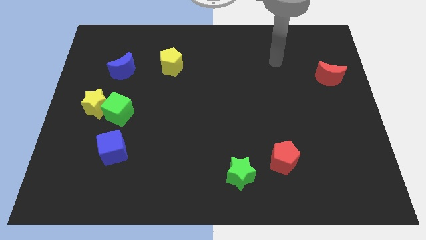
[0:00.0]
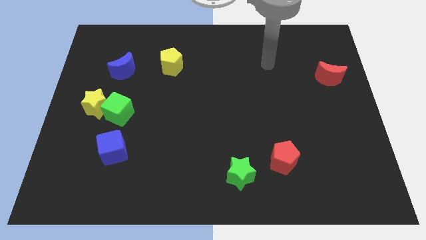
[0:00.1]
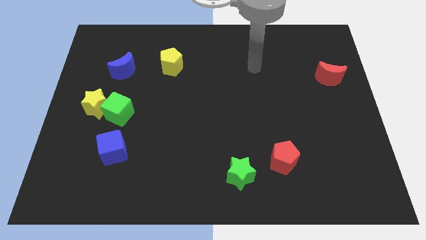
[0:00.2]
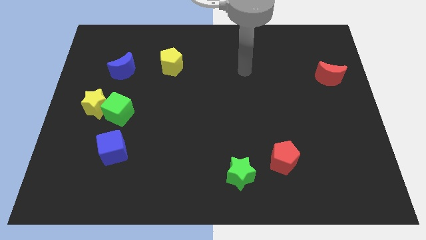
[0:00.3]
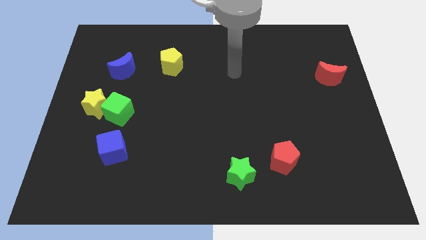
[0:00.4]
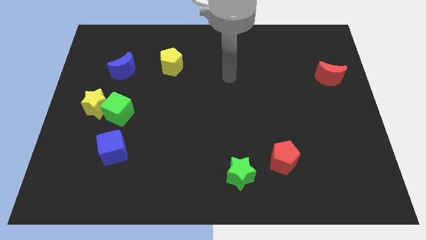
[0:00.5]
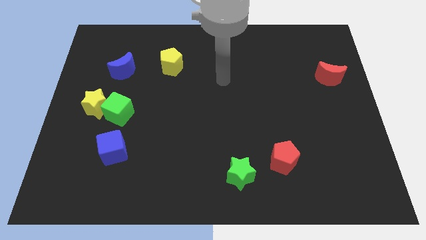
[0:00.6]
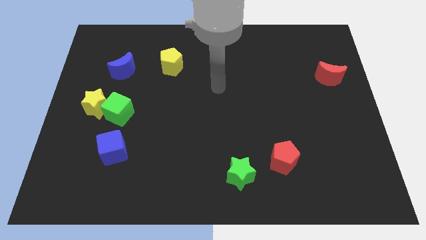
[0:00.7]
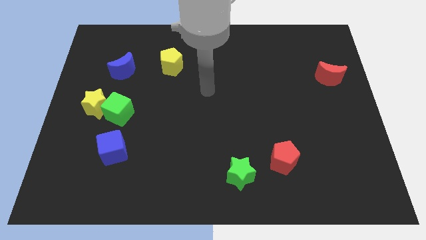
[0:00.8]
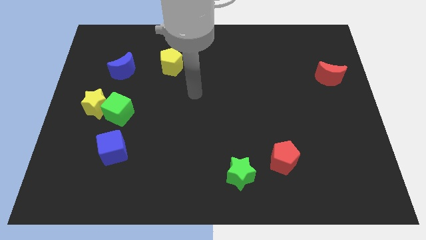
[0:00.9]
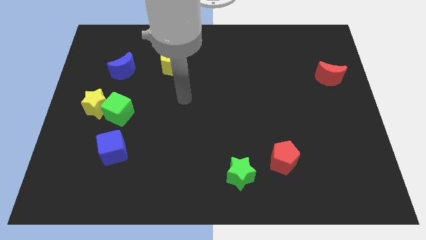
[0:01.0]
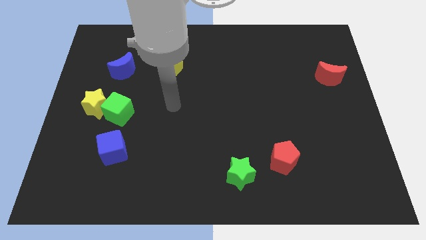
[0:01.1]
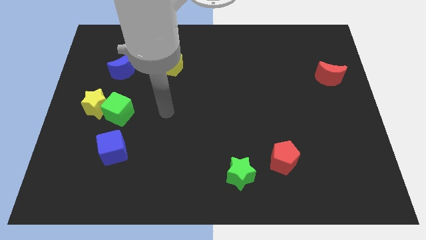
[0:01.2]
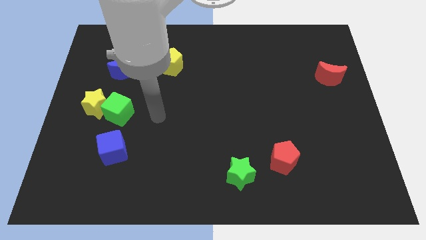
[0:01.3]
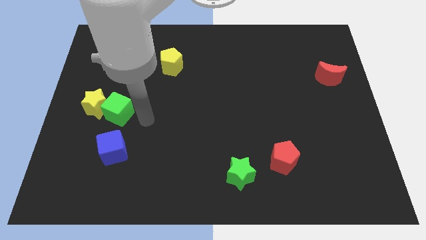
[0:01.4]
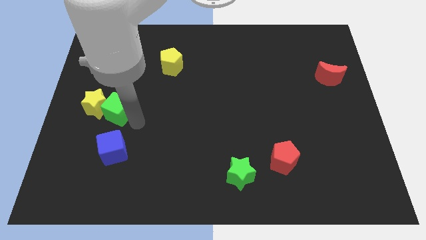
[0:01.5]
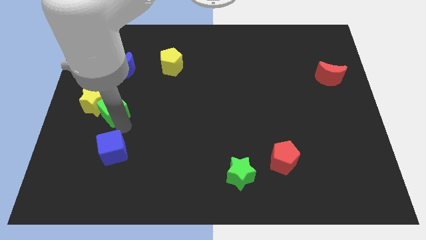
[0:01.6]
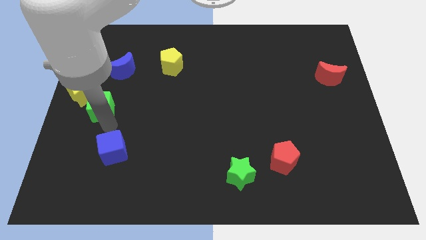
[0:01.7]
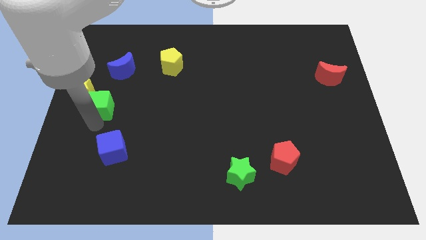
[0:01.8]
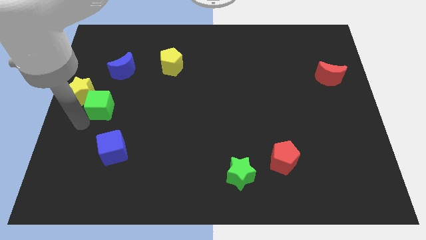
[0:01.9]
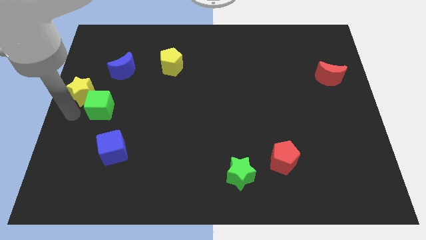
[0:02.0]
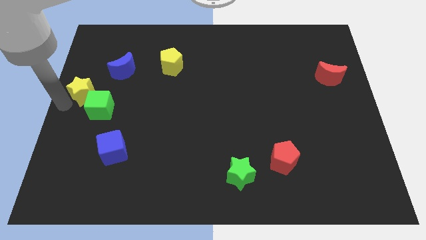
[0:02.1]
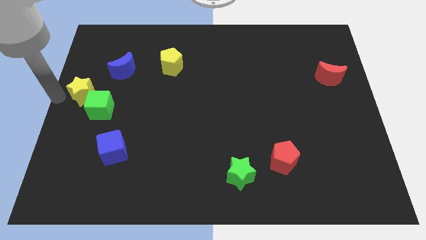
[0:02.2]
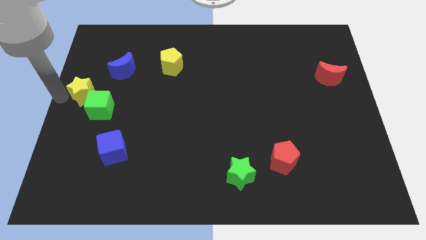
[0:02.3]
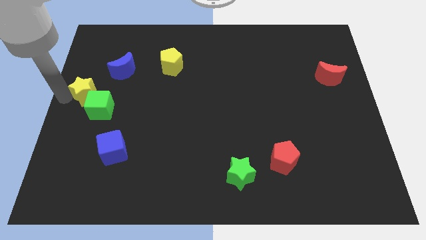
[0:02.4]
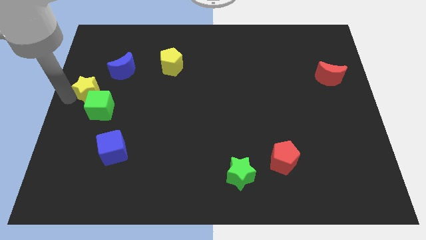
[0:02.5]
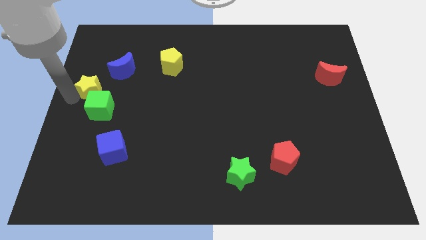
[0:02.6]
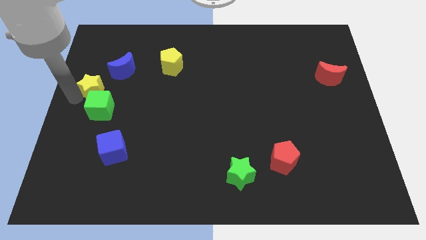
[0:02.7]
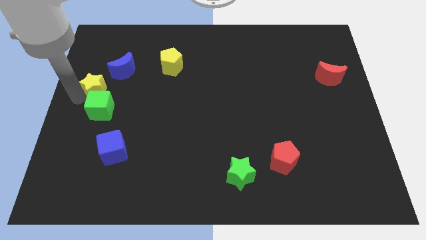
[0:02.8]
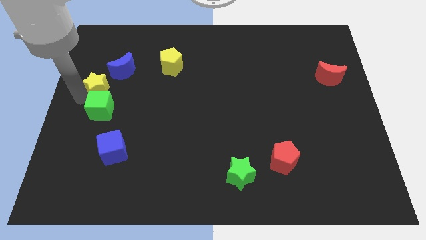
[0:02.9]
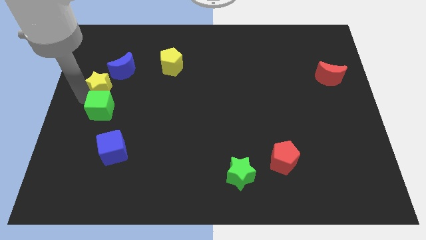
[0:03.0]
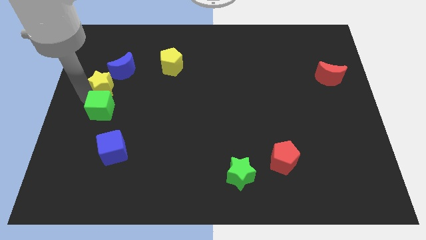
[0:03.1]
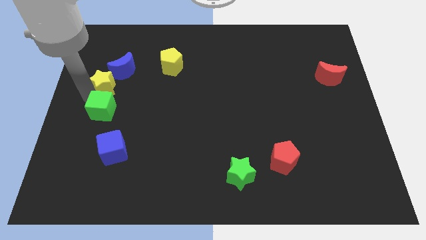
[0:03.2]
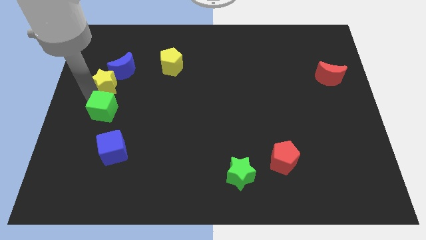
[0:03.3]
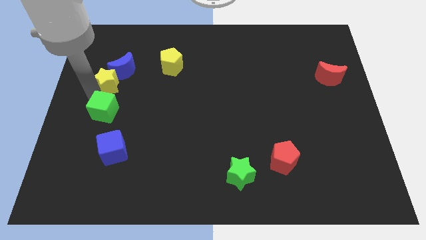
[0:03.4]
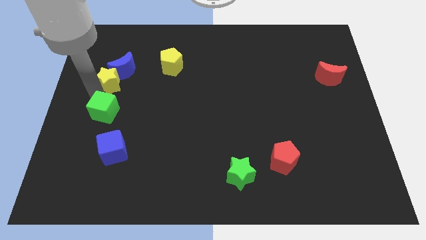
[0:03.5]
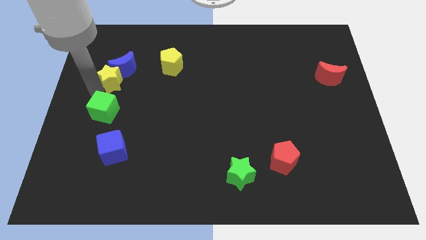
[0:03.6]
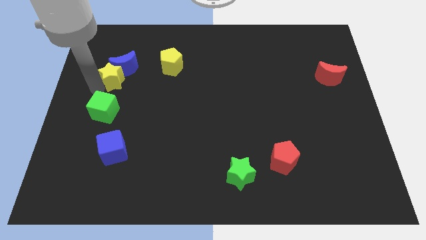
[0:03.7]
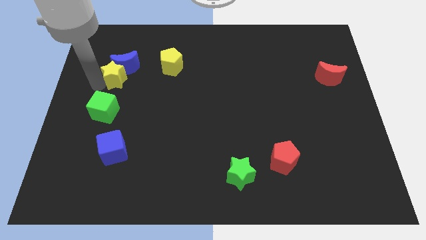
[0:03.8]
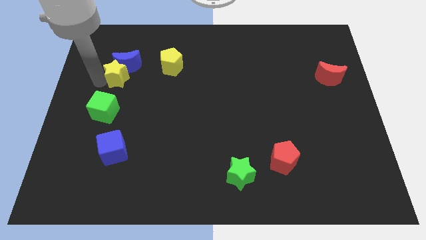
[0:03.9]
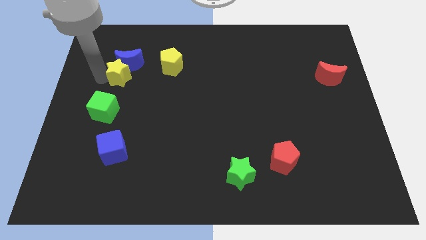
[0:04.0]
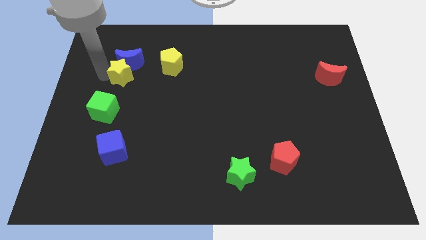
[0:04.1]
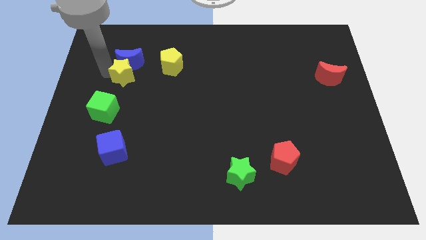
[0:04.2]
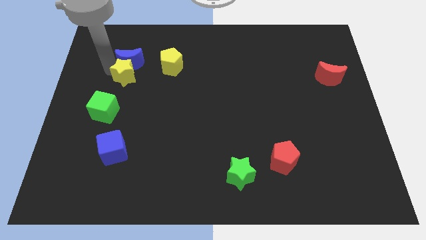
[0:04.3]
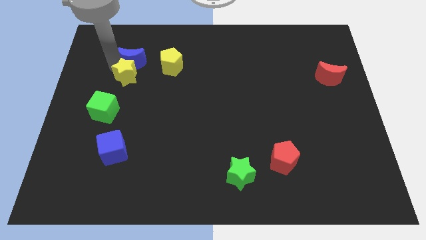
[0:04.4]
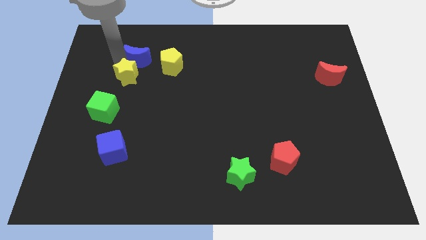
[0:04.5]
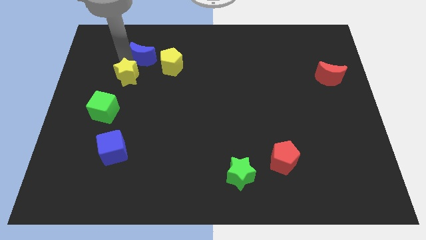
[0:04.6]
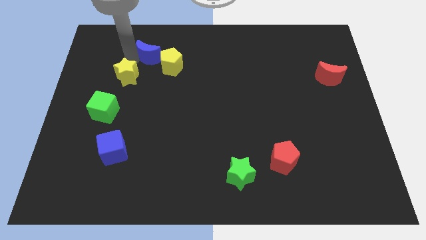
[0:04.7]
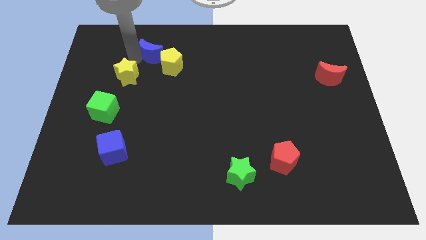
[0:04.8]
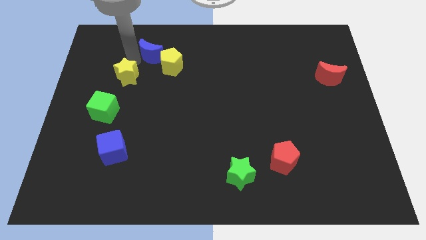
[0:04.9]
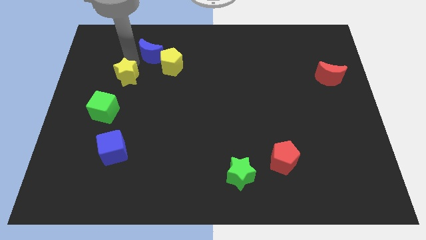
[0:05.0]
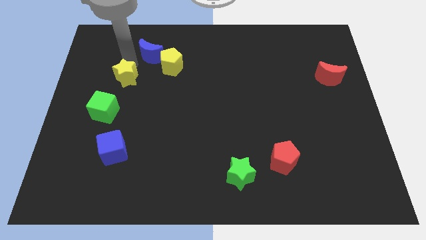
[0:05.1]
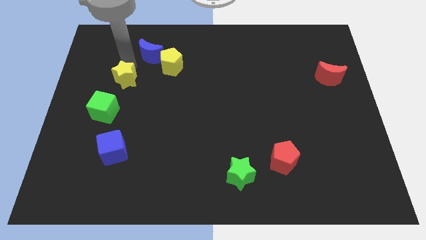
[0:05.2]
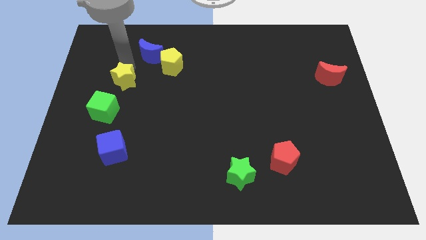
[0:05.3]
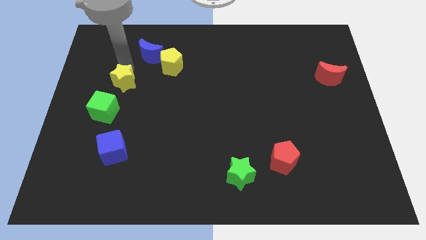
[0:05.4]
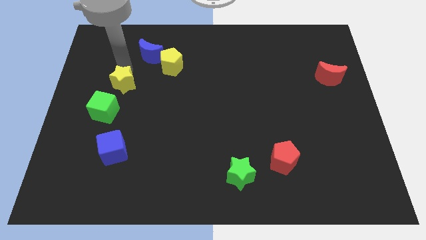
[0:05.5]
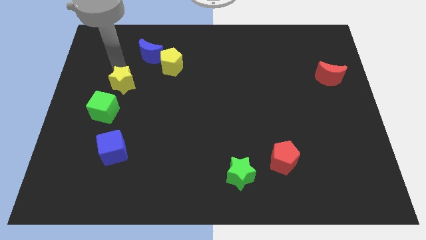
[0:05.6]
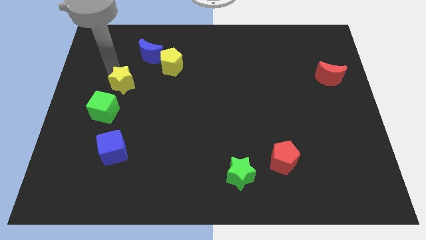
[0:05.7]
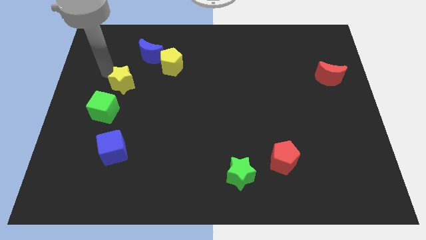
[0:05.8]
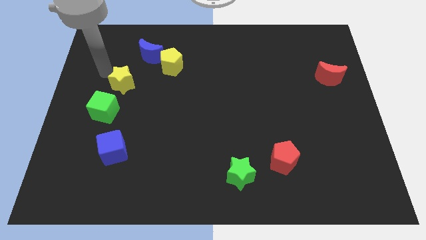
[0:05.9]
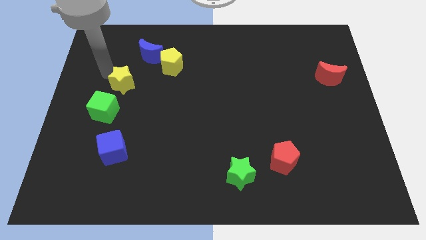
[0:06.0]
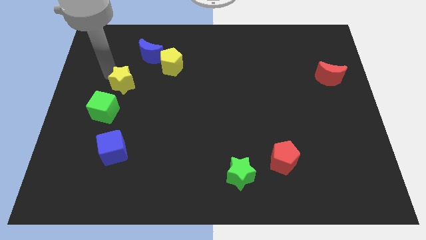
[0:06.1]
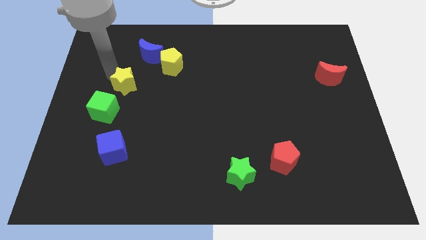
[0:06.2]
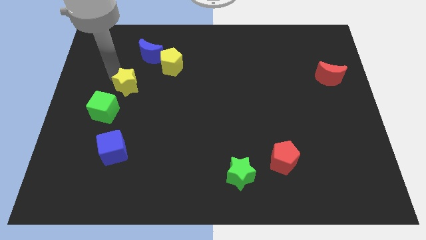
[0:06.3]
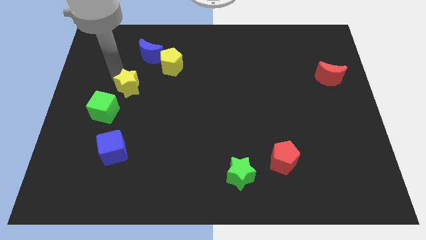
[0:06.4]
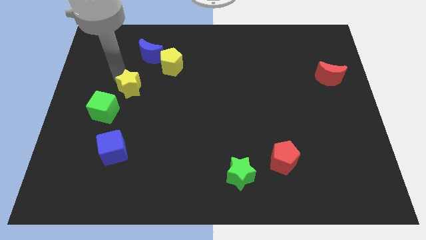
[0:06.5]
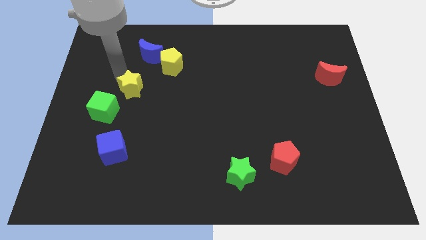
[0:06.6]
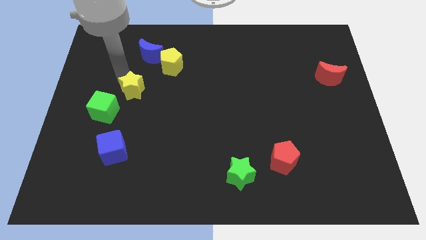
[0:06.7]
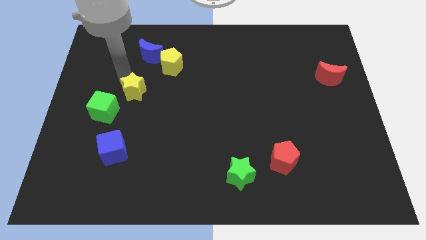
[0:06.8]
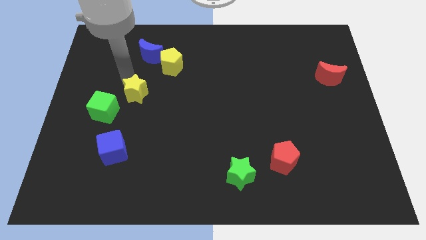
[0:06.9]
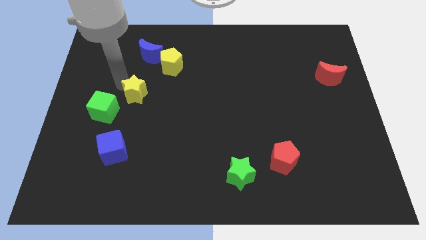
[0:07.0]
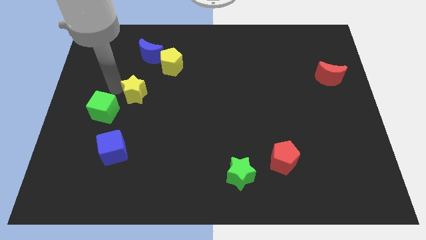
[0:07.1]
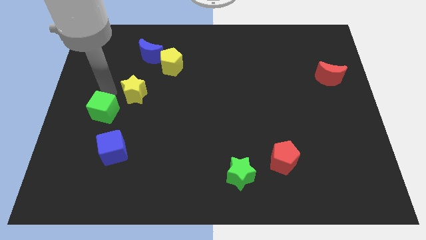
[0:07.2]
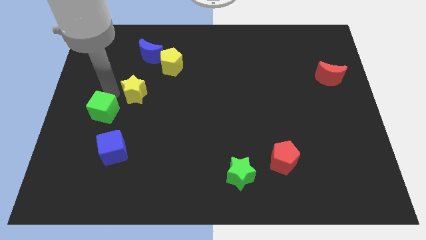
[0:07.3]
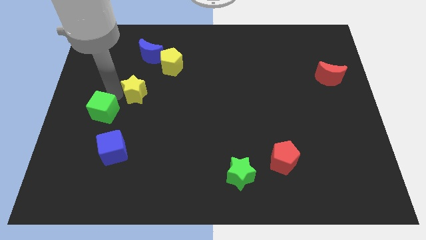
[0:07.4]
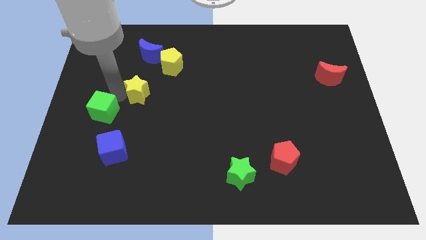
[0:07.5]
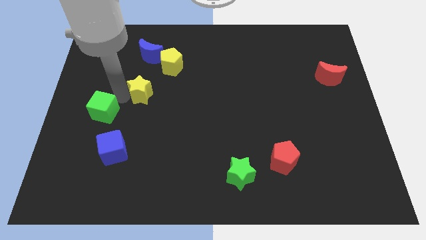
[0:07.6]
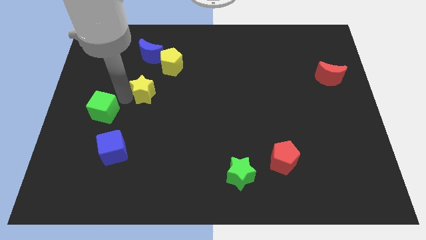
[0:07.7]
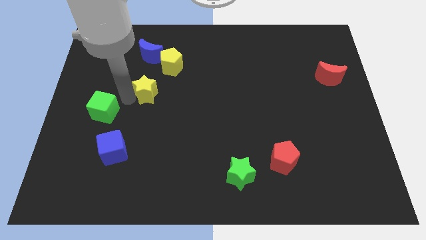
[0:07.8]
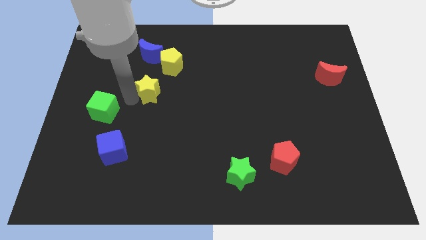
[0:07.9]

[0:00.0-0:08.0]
move the yellow star to the bottom of the yellow pentagon
